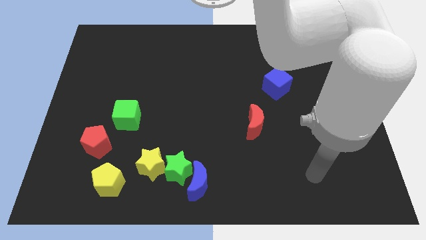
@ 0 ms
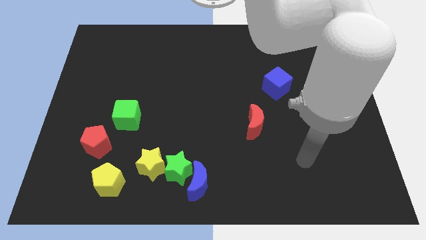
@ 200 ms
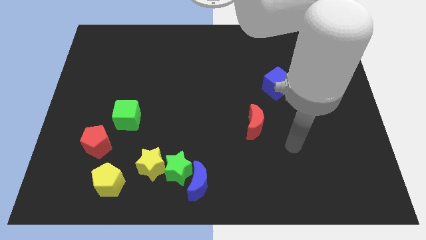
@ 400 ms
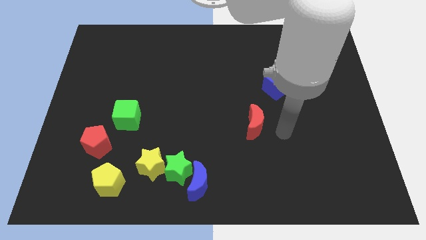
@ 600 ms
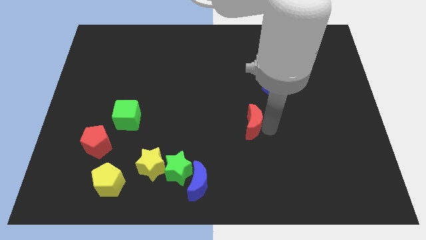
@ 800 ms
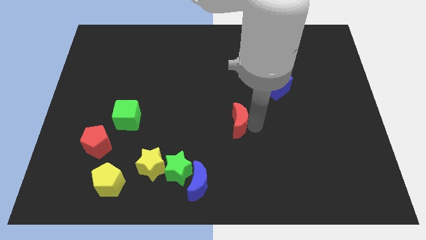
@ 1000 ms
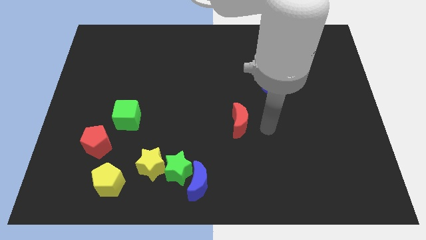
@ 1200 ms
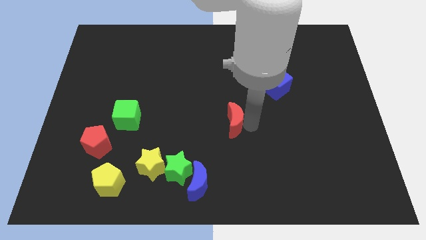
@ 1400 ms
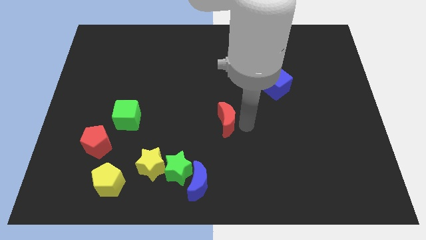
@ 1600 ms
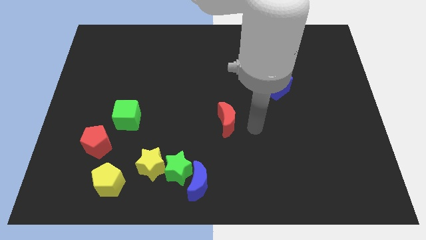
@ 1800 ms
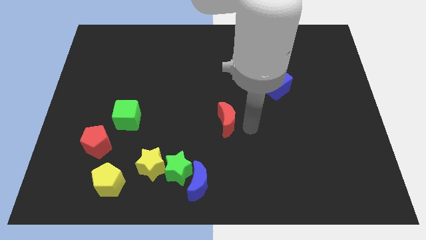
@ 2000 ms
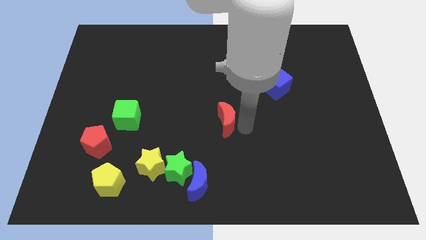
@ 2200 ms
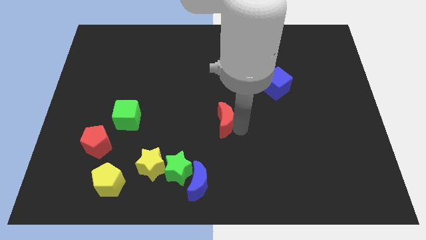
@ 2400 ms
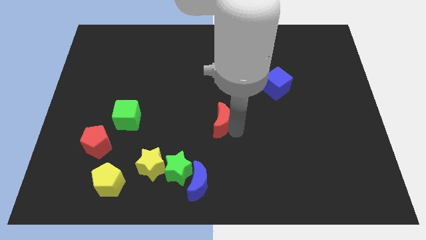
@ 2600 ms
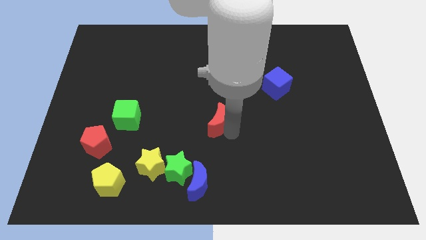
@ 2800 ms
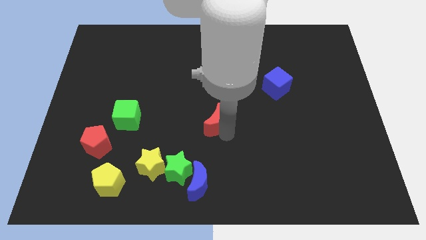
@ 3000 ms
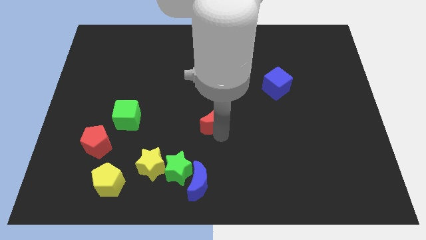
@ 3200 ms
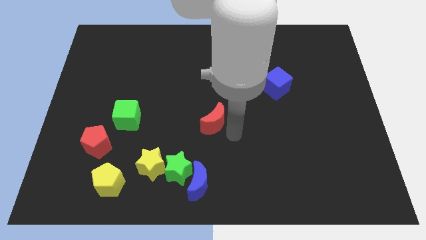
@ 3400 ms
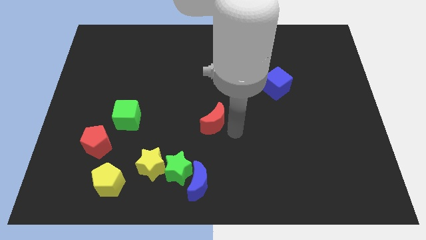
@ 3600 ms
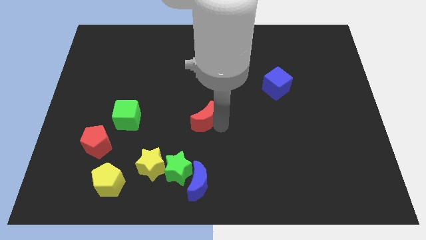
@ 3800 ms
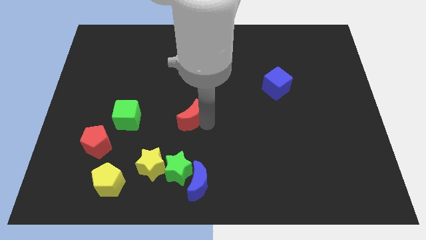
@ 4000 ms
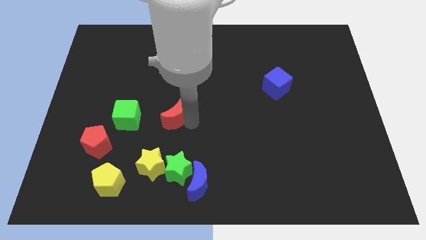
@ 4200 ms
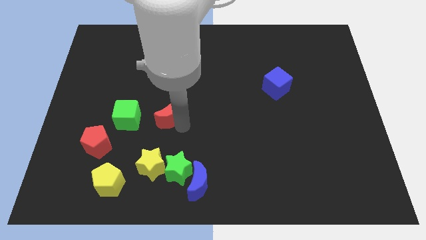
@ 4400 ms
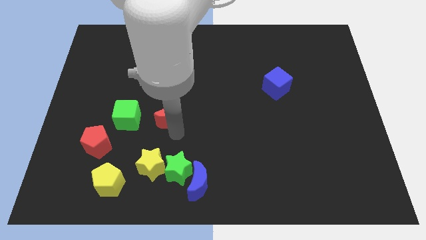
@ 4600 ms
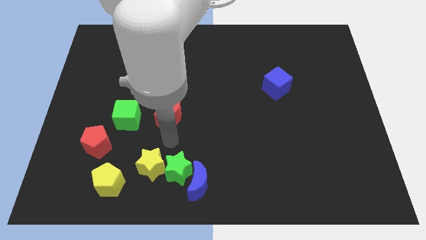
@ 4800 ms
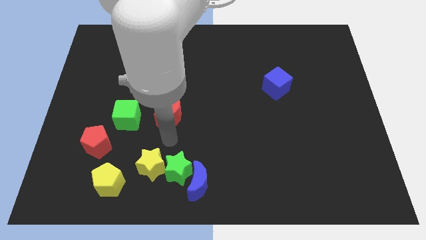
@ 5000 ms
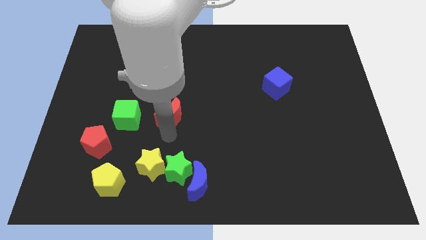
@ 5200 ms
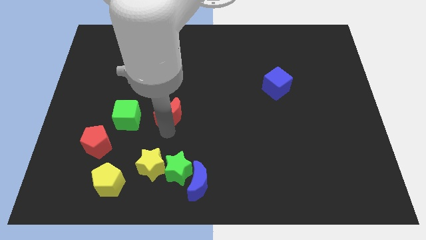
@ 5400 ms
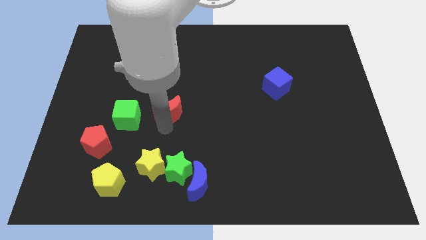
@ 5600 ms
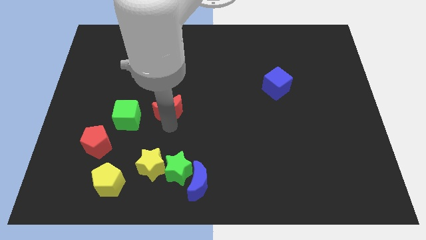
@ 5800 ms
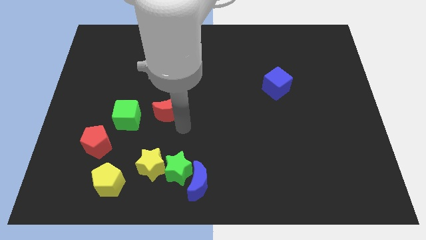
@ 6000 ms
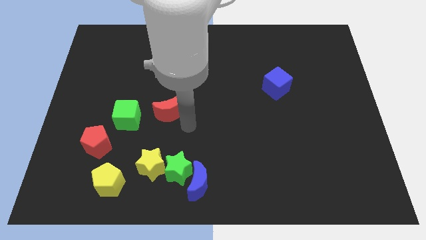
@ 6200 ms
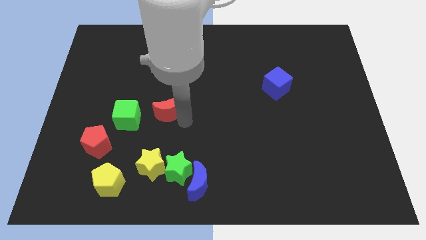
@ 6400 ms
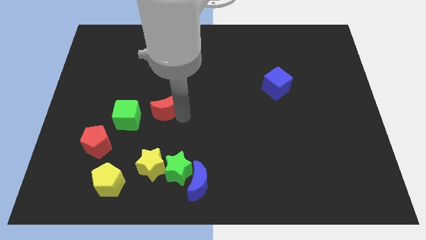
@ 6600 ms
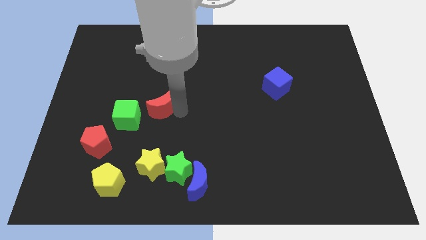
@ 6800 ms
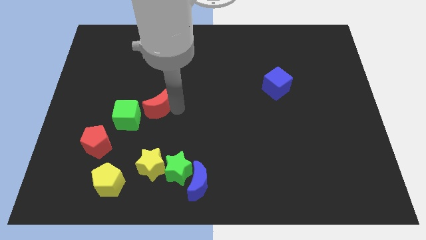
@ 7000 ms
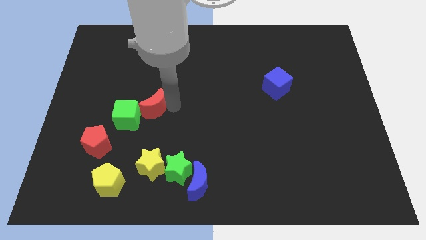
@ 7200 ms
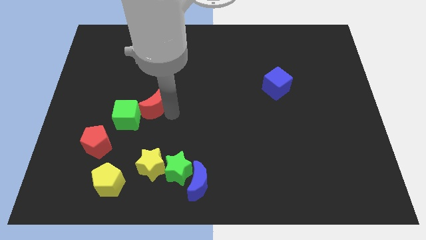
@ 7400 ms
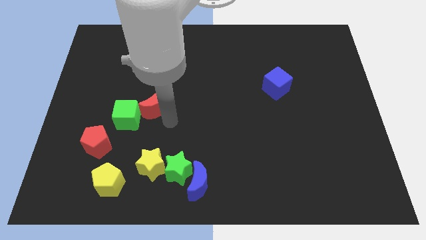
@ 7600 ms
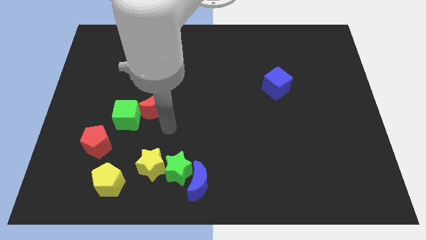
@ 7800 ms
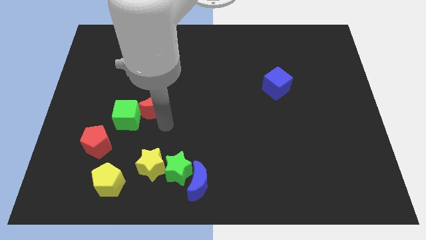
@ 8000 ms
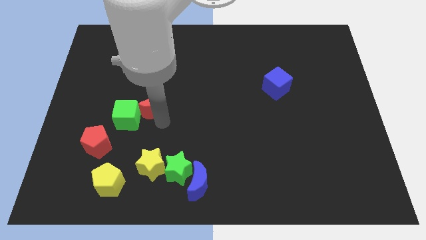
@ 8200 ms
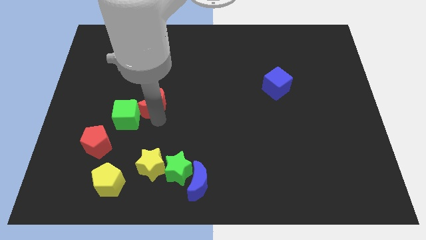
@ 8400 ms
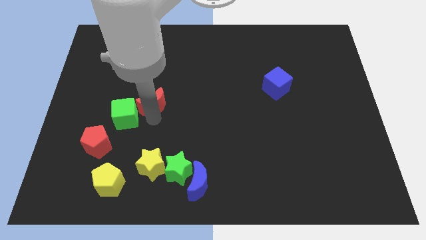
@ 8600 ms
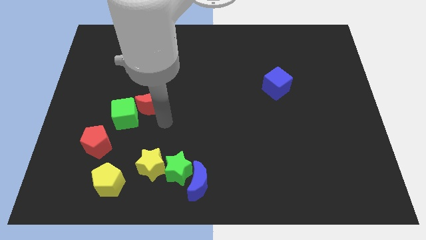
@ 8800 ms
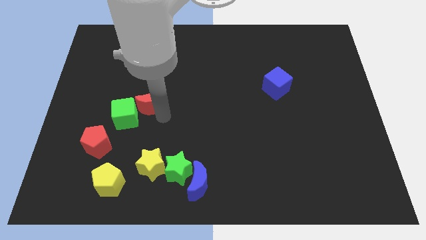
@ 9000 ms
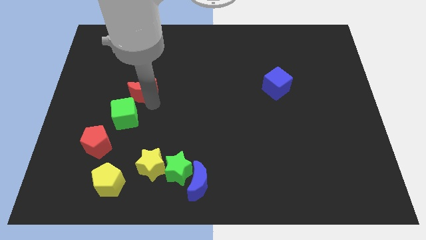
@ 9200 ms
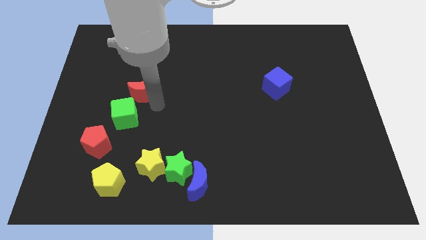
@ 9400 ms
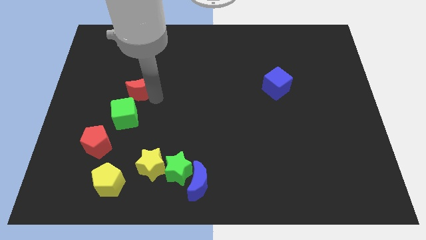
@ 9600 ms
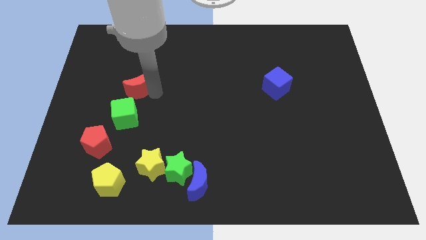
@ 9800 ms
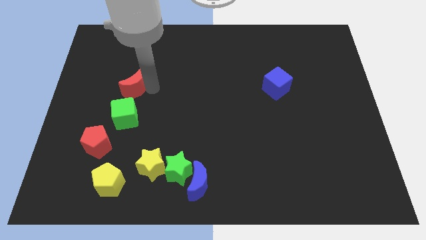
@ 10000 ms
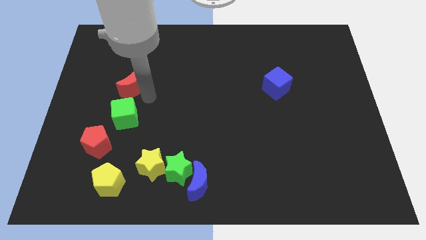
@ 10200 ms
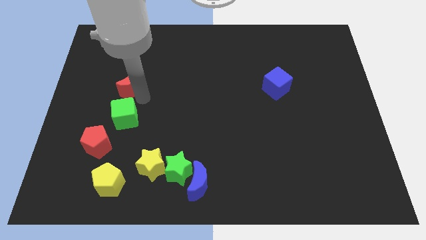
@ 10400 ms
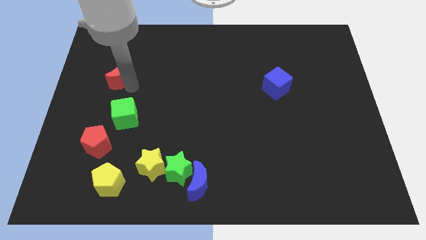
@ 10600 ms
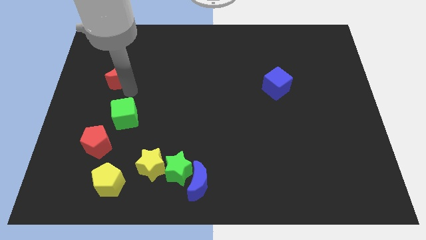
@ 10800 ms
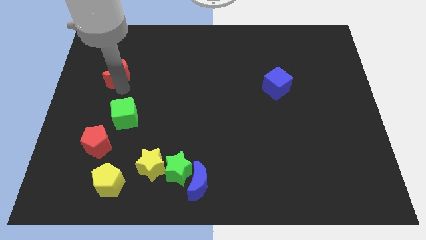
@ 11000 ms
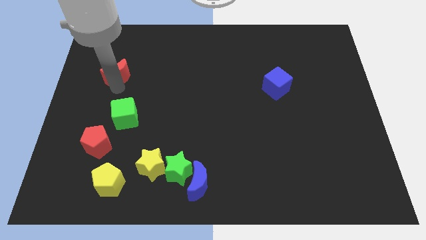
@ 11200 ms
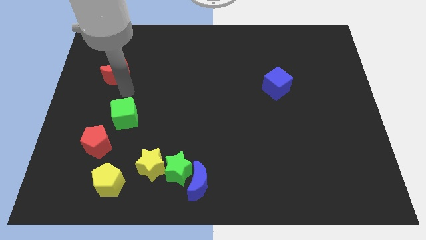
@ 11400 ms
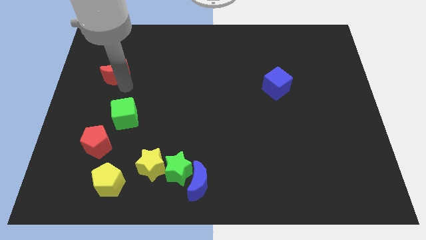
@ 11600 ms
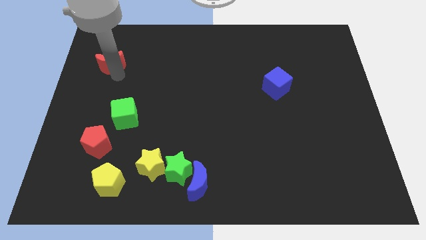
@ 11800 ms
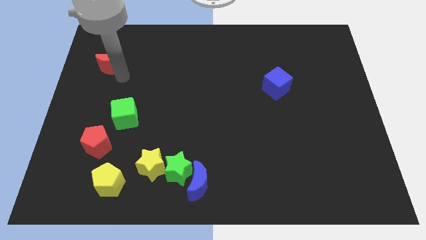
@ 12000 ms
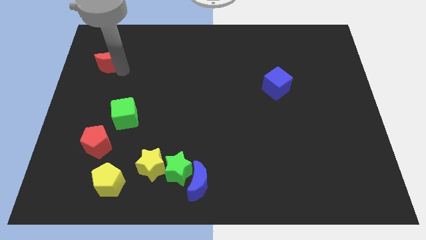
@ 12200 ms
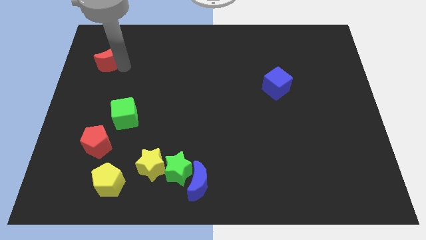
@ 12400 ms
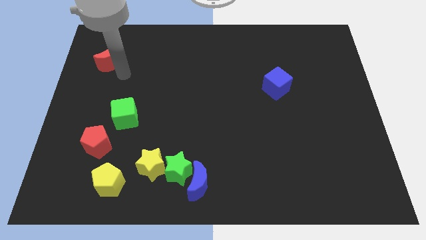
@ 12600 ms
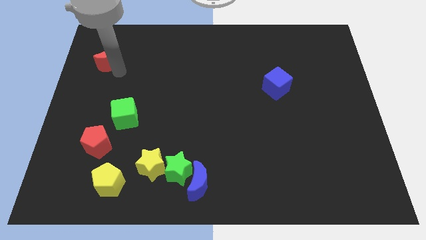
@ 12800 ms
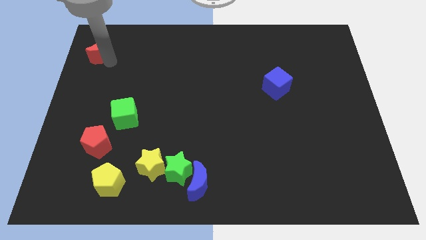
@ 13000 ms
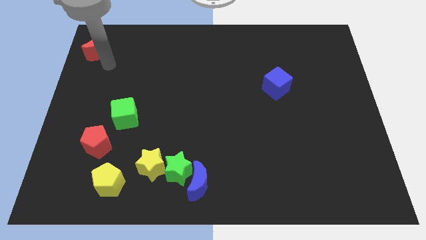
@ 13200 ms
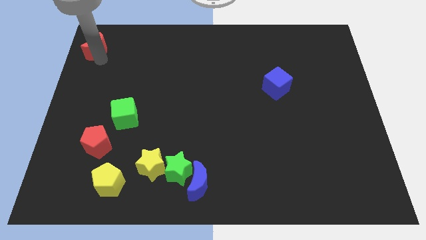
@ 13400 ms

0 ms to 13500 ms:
slide the red moon to the upper left corner
